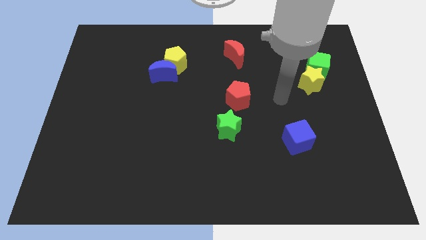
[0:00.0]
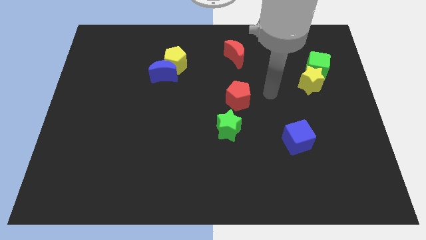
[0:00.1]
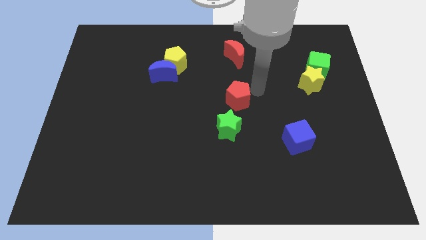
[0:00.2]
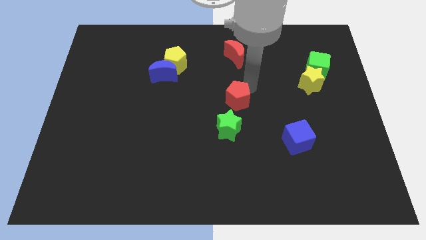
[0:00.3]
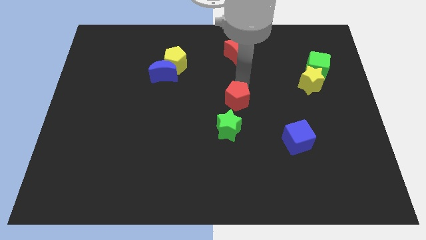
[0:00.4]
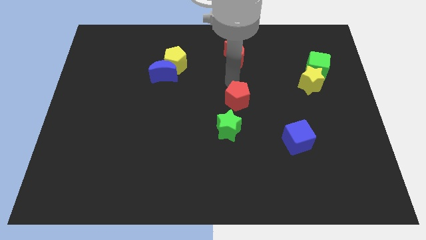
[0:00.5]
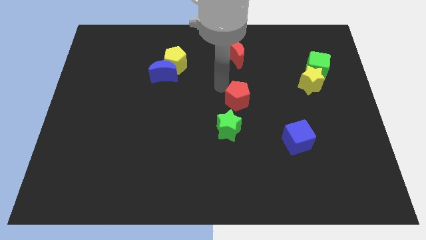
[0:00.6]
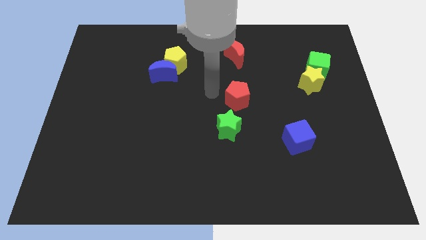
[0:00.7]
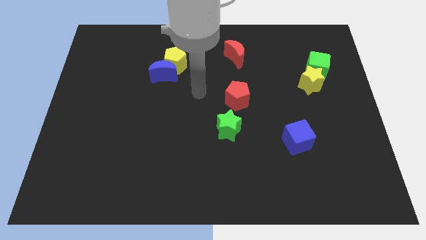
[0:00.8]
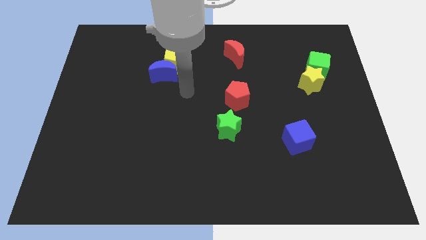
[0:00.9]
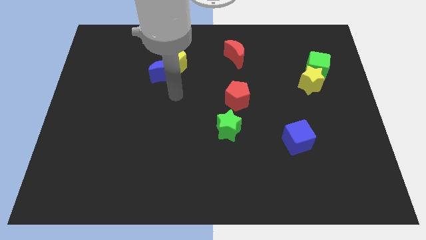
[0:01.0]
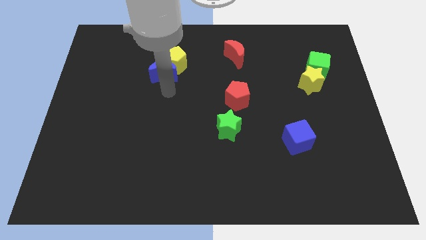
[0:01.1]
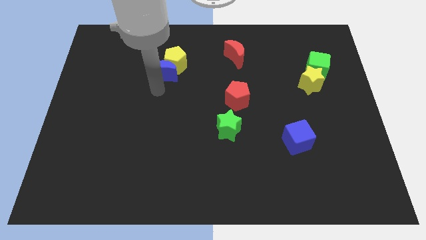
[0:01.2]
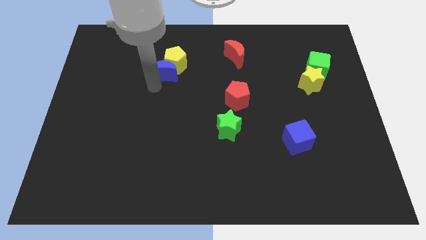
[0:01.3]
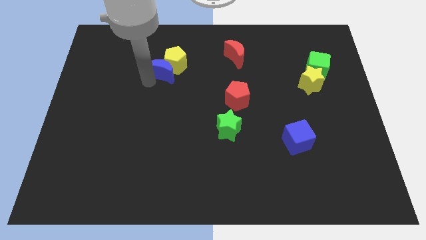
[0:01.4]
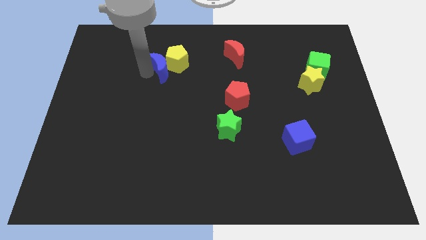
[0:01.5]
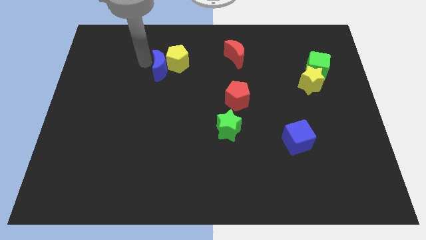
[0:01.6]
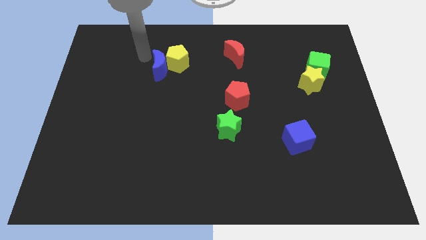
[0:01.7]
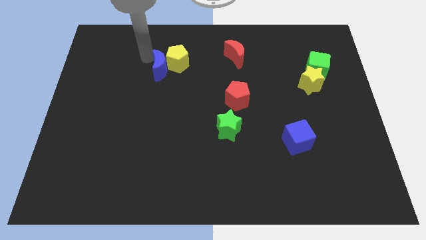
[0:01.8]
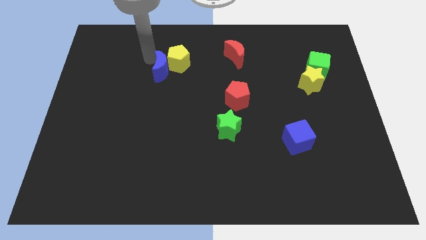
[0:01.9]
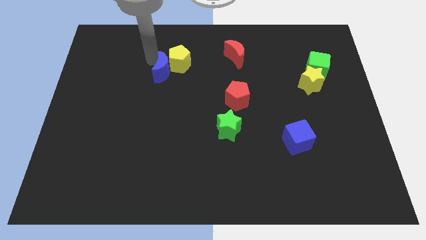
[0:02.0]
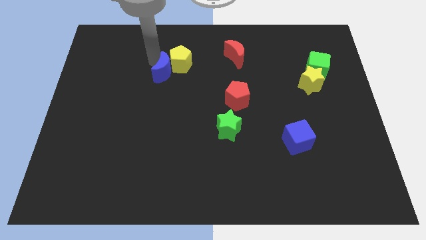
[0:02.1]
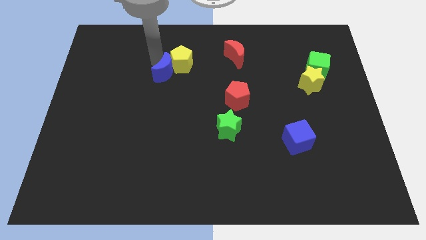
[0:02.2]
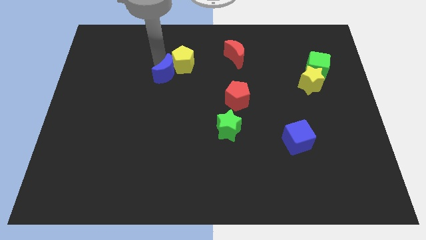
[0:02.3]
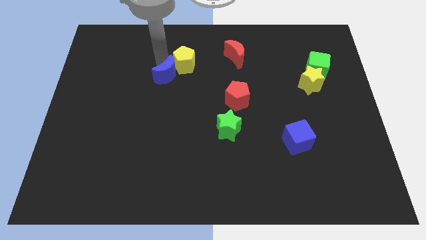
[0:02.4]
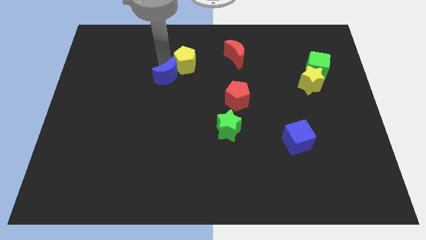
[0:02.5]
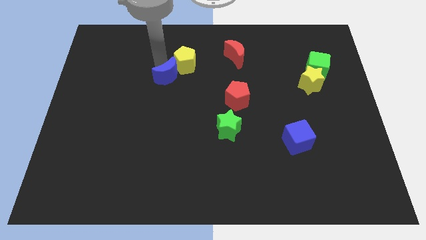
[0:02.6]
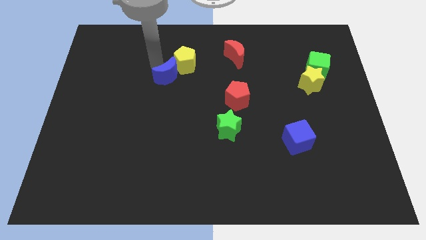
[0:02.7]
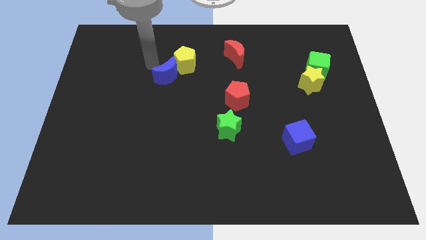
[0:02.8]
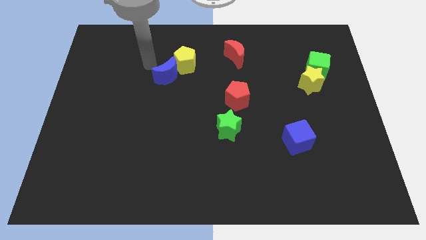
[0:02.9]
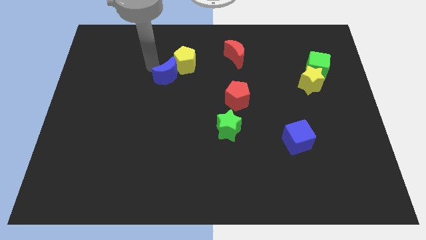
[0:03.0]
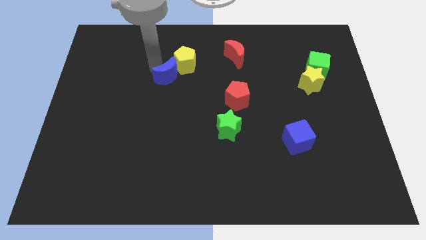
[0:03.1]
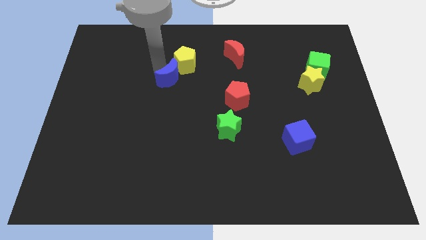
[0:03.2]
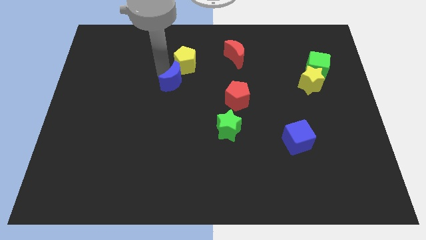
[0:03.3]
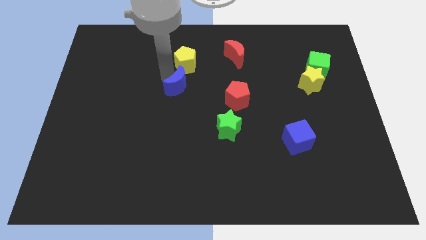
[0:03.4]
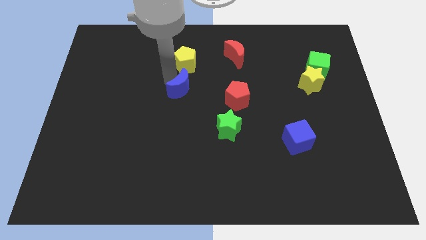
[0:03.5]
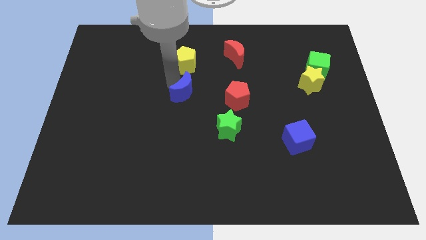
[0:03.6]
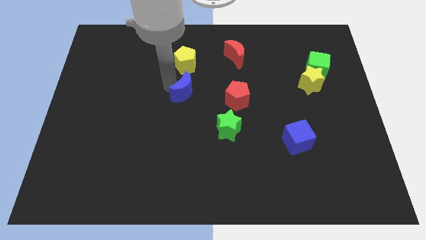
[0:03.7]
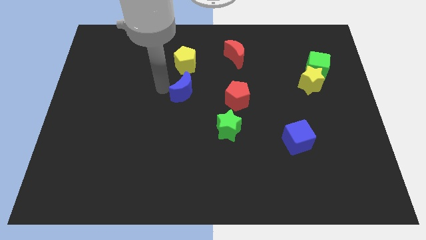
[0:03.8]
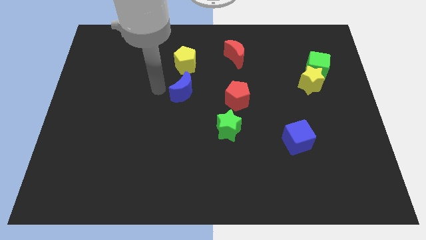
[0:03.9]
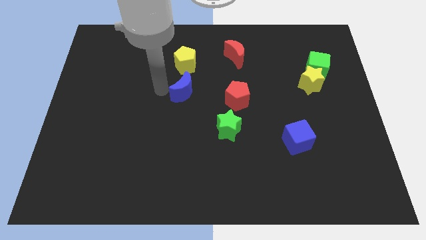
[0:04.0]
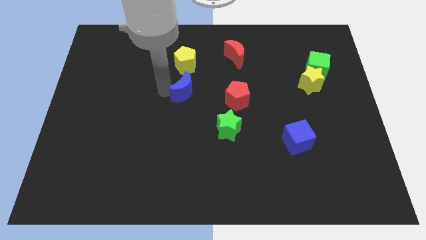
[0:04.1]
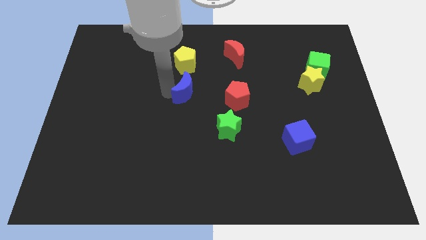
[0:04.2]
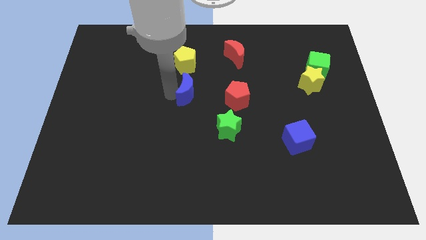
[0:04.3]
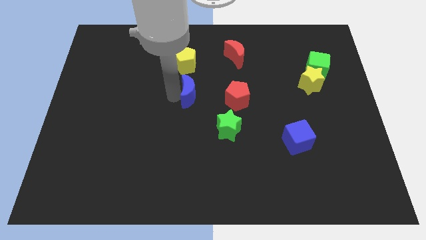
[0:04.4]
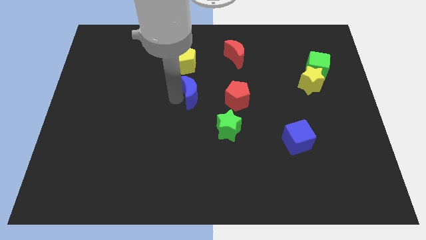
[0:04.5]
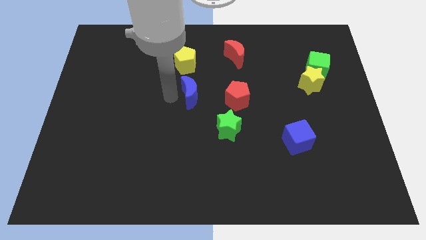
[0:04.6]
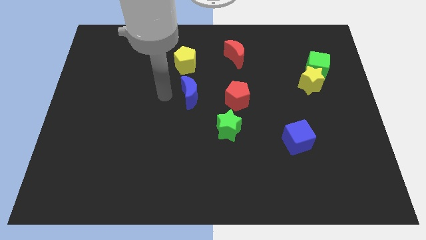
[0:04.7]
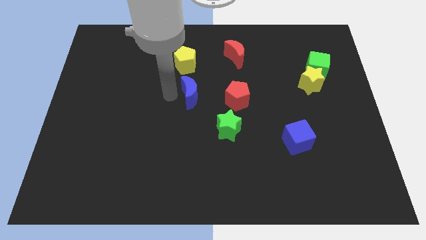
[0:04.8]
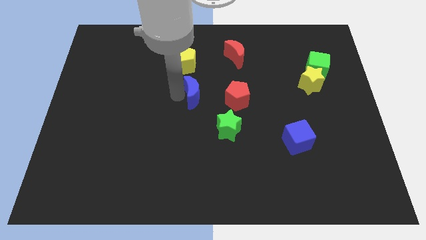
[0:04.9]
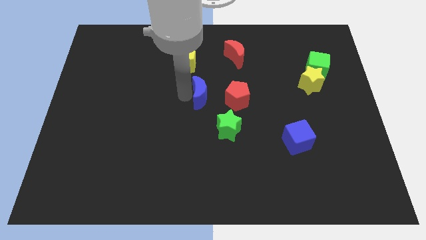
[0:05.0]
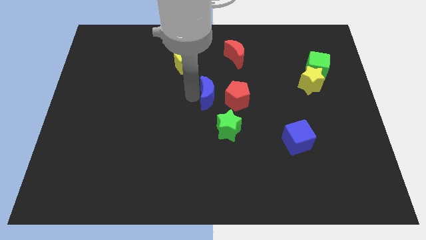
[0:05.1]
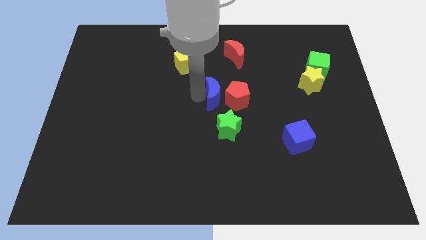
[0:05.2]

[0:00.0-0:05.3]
move the blue moon to the red pentagon

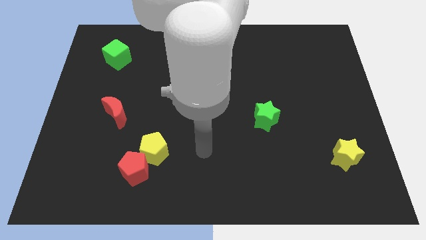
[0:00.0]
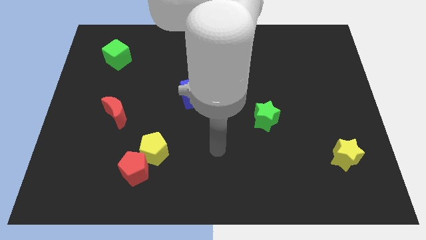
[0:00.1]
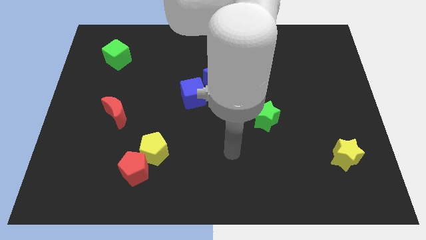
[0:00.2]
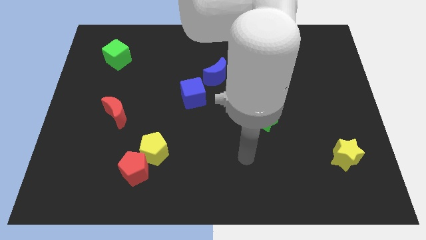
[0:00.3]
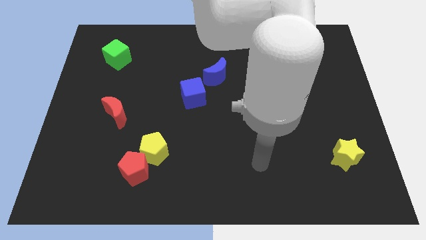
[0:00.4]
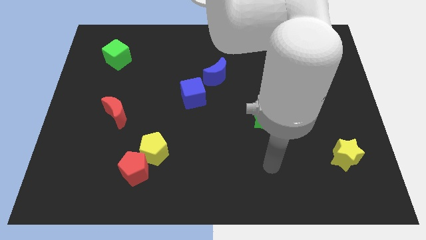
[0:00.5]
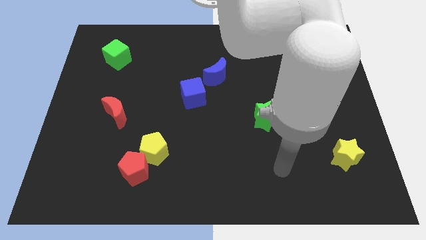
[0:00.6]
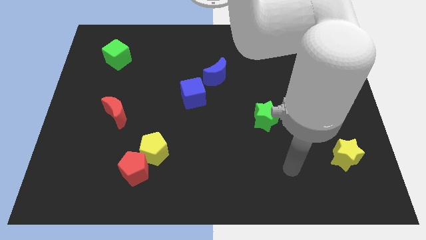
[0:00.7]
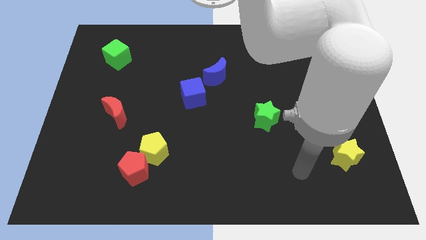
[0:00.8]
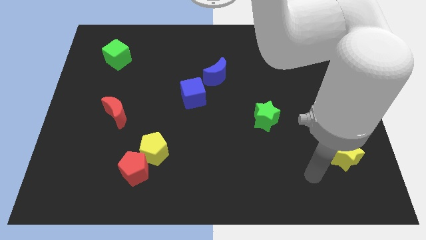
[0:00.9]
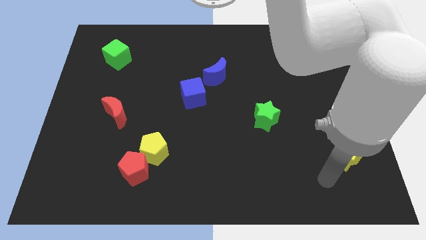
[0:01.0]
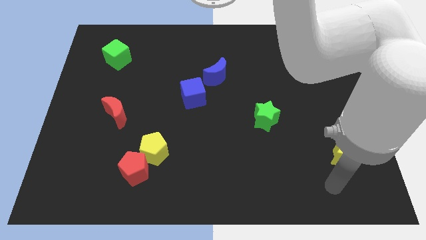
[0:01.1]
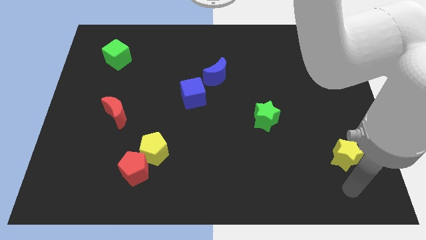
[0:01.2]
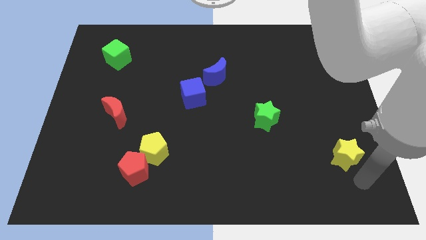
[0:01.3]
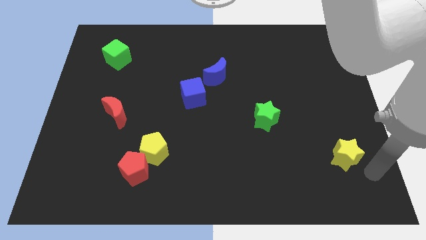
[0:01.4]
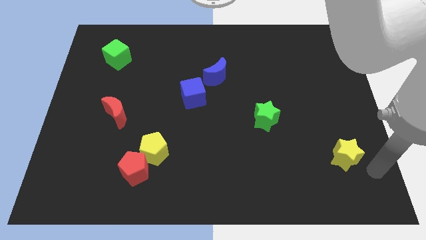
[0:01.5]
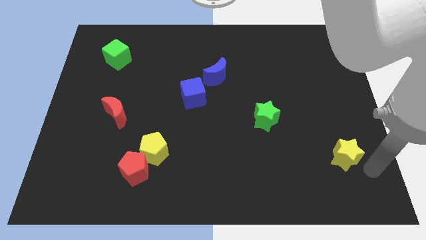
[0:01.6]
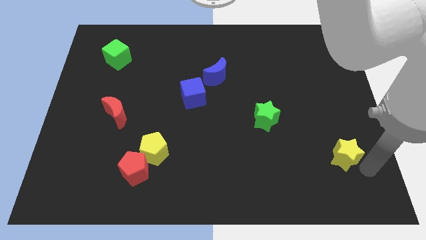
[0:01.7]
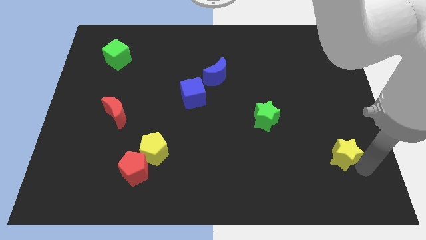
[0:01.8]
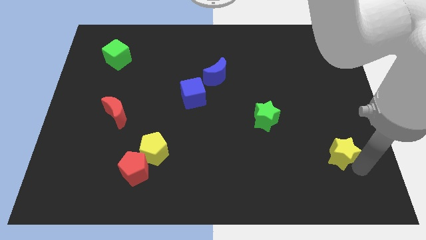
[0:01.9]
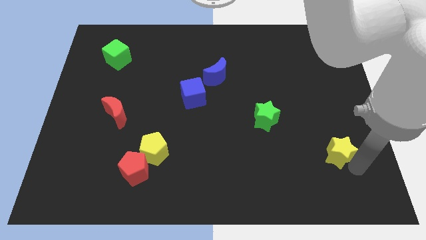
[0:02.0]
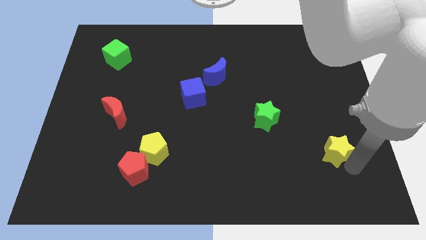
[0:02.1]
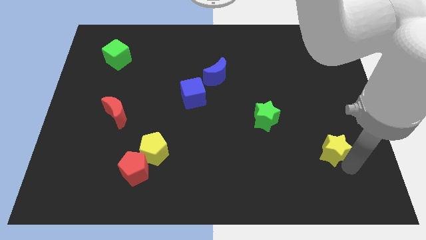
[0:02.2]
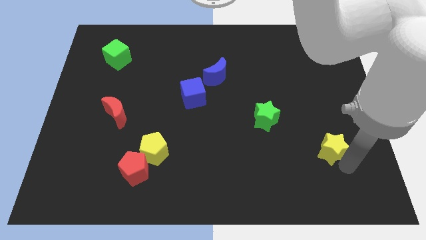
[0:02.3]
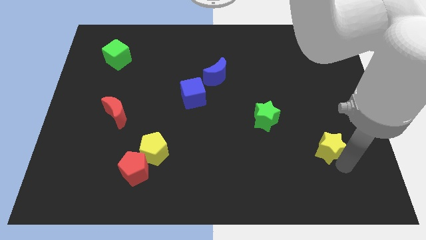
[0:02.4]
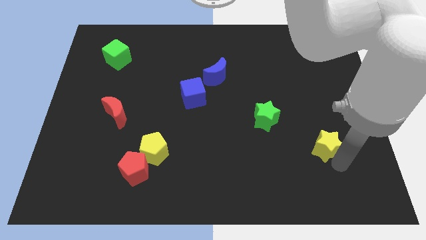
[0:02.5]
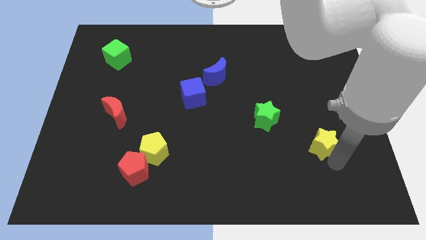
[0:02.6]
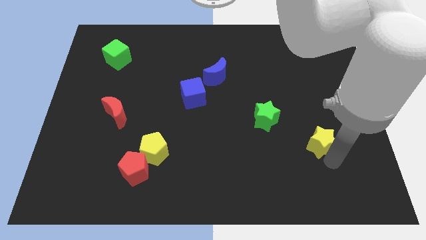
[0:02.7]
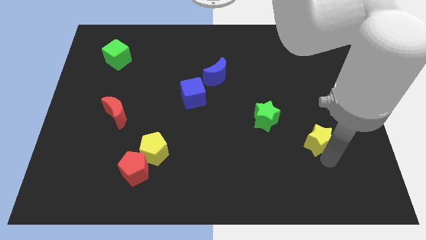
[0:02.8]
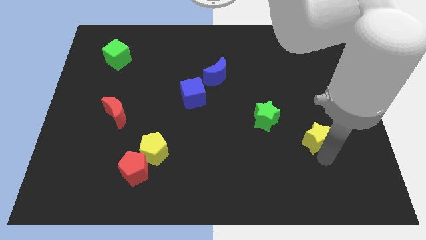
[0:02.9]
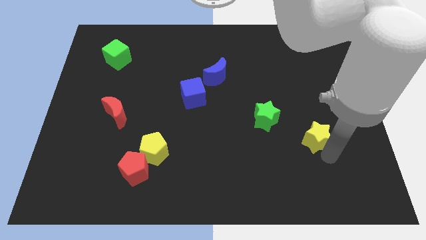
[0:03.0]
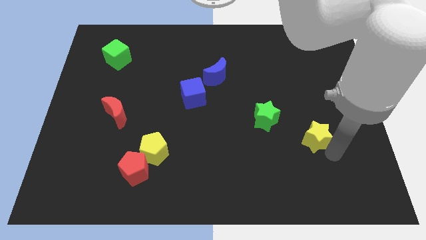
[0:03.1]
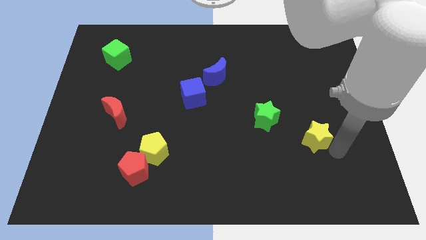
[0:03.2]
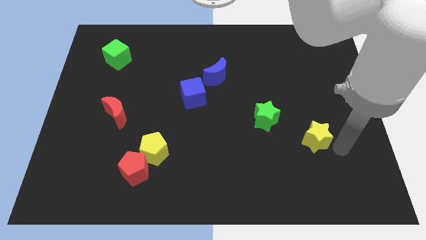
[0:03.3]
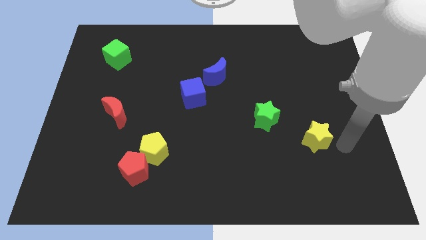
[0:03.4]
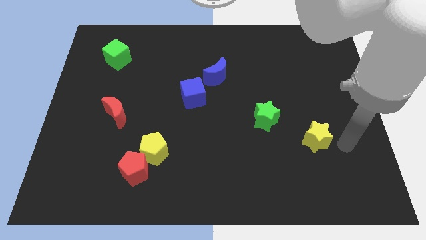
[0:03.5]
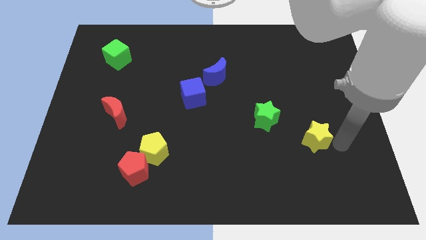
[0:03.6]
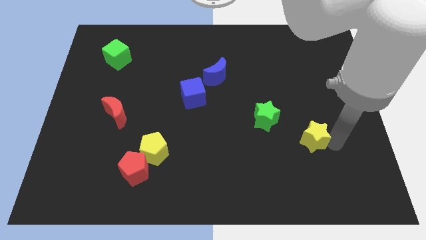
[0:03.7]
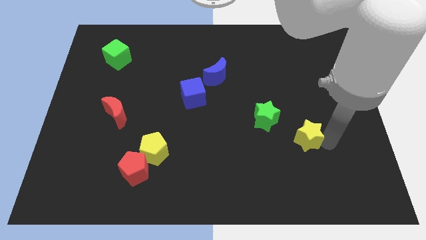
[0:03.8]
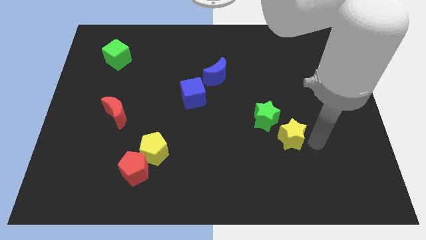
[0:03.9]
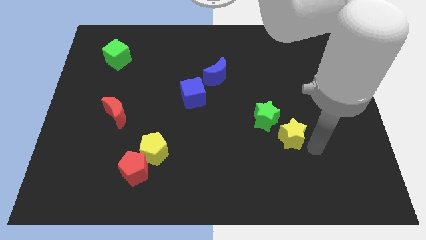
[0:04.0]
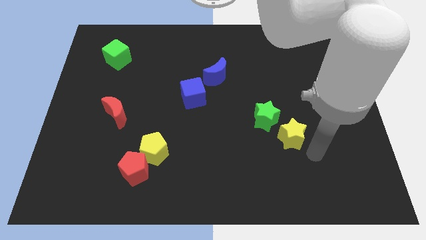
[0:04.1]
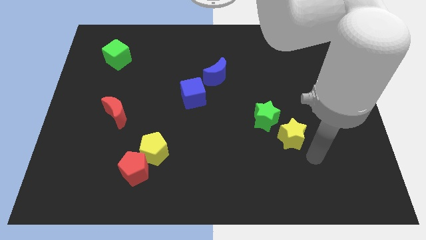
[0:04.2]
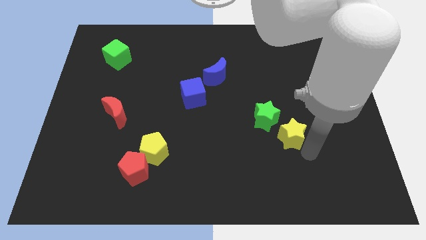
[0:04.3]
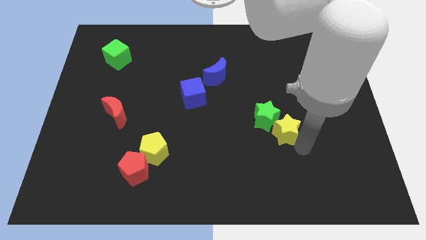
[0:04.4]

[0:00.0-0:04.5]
push the yellow star close to the green star
